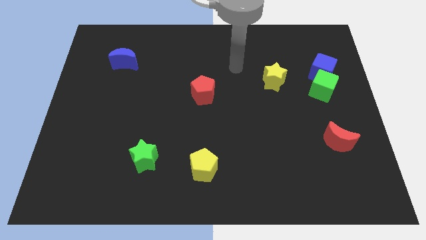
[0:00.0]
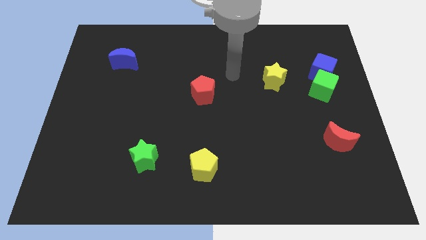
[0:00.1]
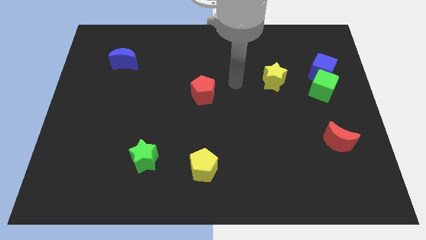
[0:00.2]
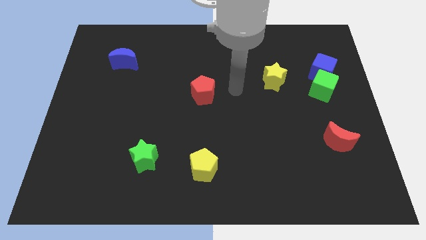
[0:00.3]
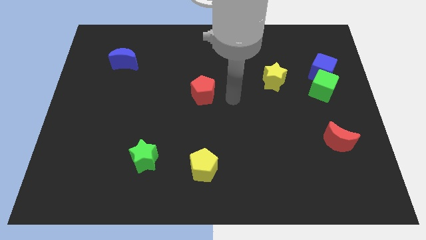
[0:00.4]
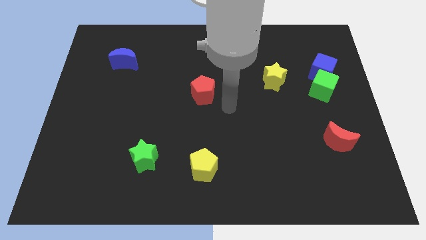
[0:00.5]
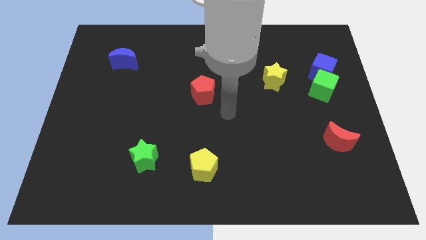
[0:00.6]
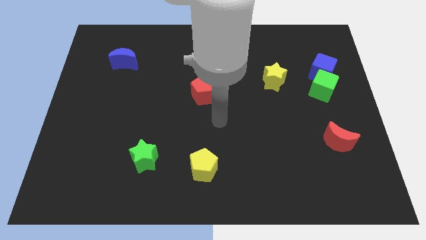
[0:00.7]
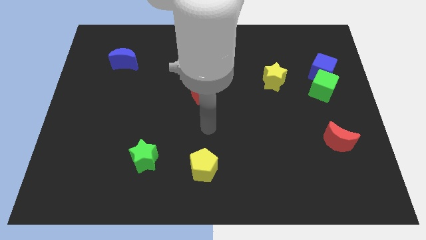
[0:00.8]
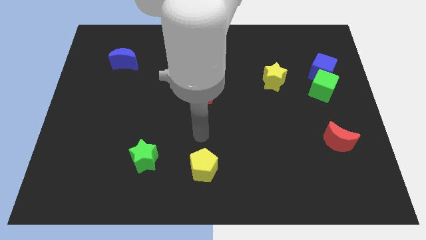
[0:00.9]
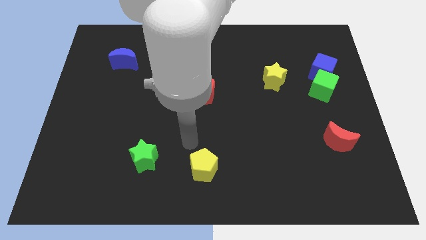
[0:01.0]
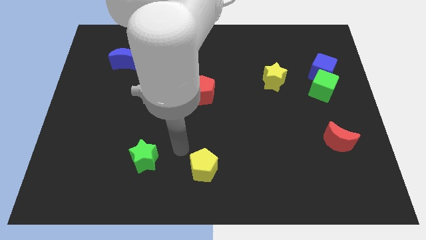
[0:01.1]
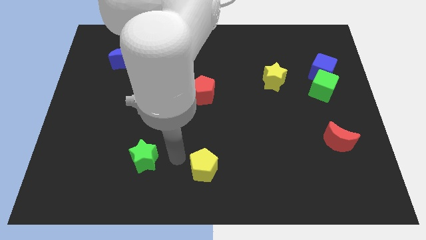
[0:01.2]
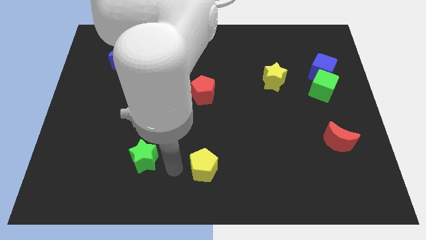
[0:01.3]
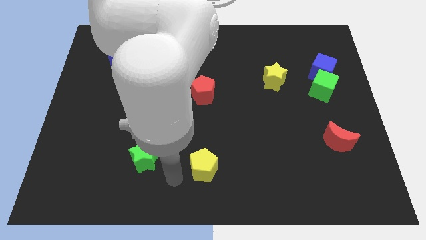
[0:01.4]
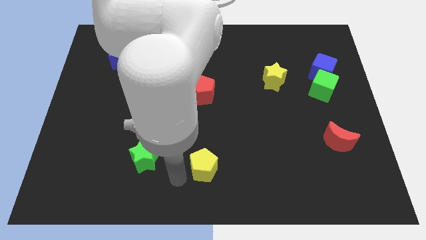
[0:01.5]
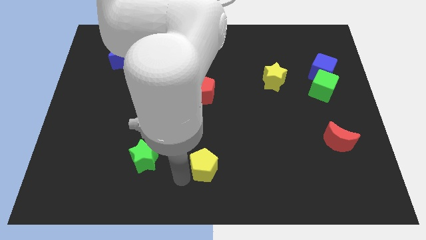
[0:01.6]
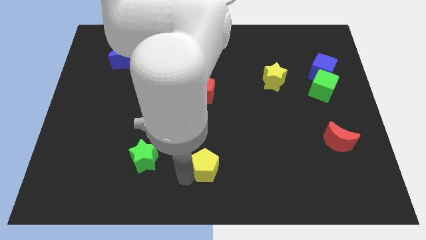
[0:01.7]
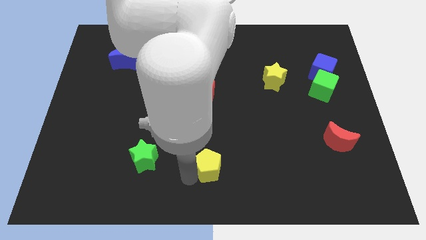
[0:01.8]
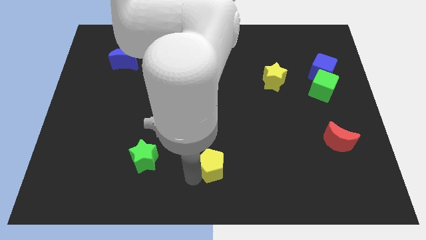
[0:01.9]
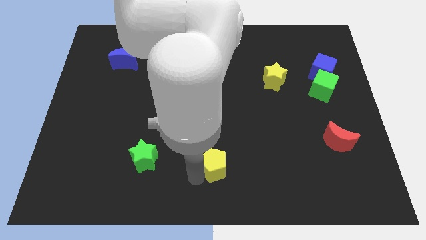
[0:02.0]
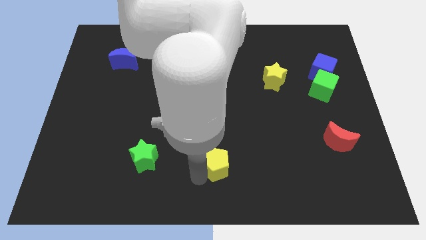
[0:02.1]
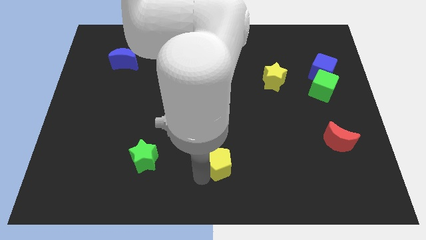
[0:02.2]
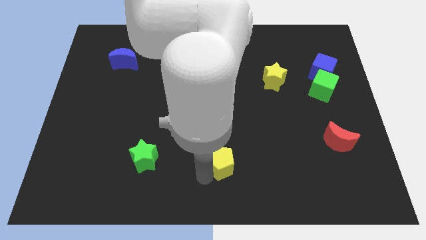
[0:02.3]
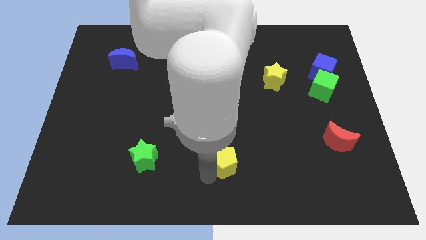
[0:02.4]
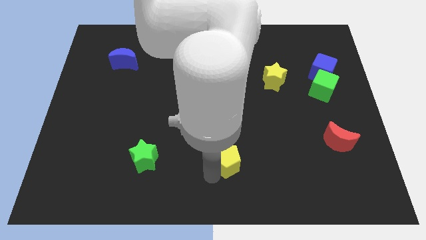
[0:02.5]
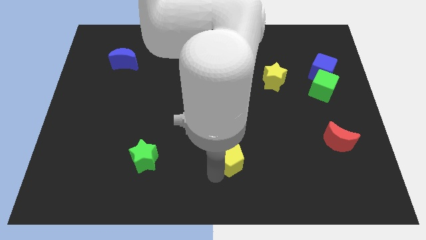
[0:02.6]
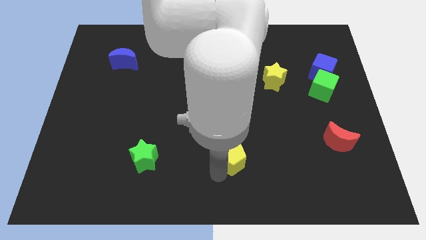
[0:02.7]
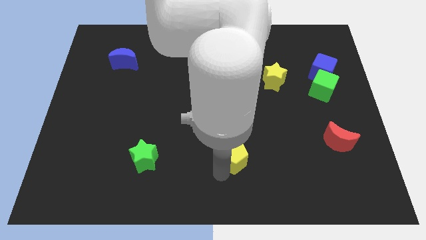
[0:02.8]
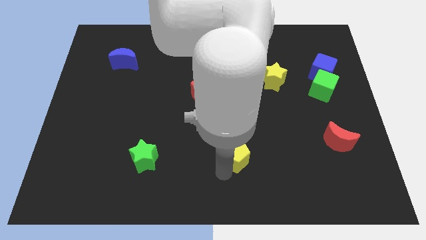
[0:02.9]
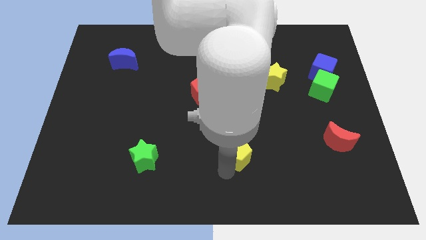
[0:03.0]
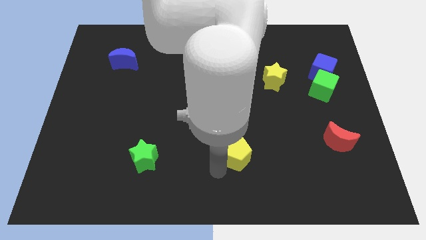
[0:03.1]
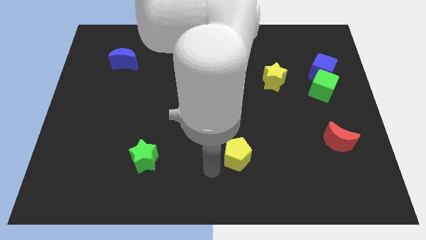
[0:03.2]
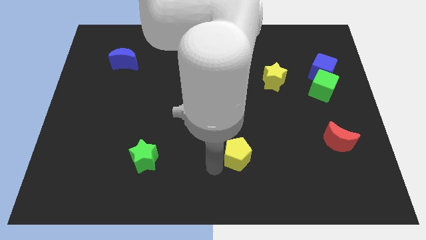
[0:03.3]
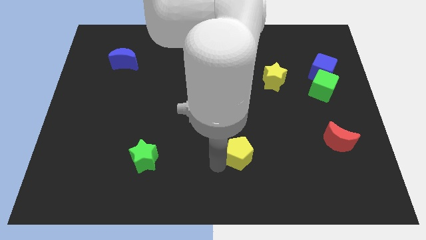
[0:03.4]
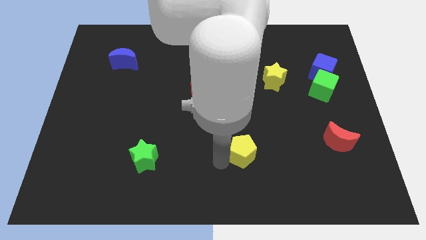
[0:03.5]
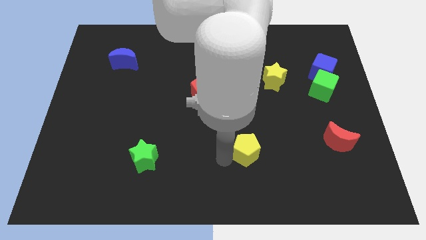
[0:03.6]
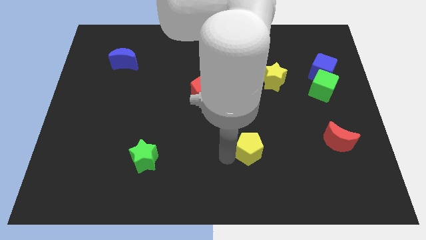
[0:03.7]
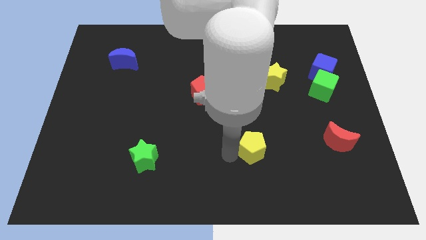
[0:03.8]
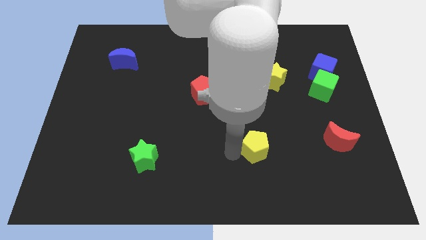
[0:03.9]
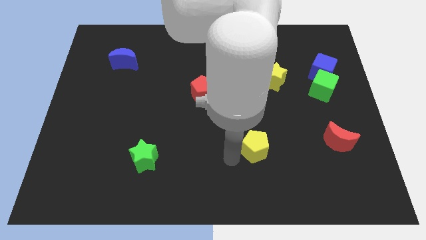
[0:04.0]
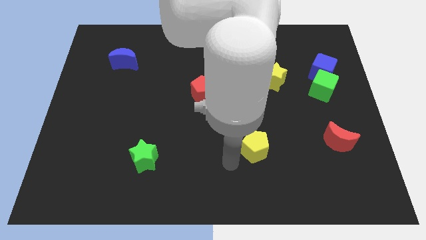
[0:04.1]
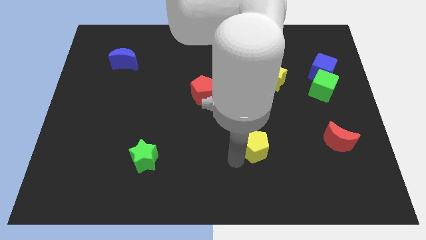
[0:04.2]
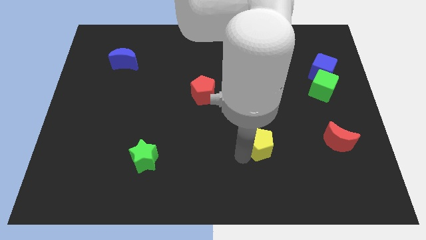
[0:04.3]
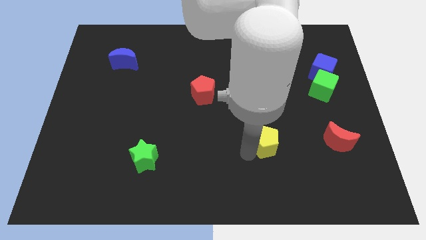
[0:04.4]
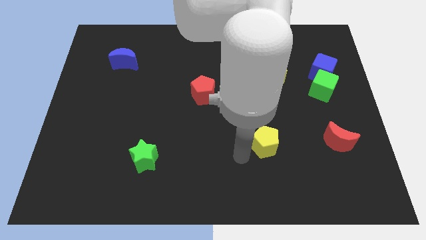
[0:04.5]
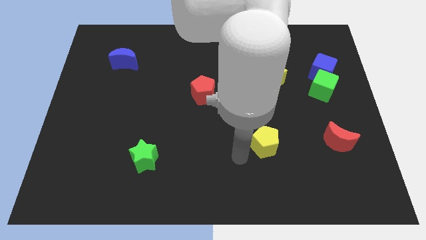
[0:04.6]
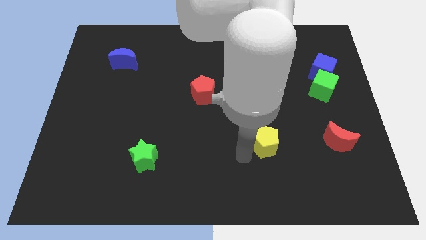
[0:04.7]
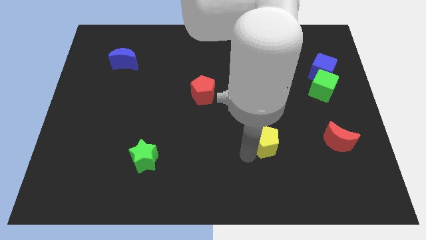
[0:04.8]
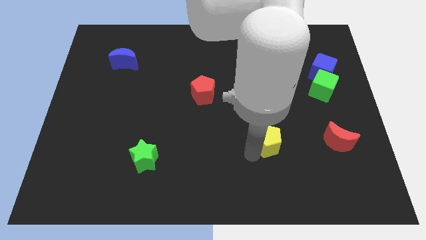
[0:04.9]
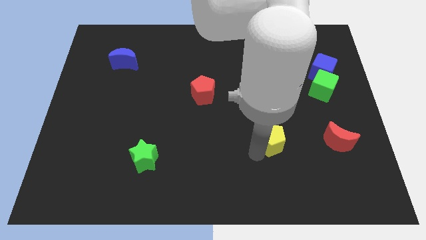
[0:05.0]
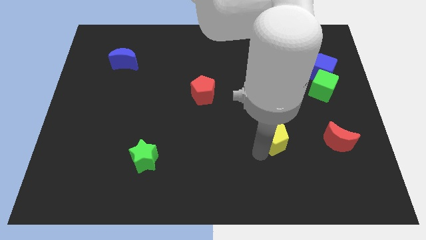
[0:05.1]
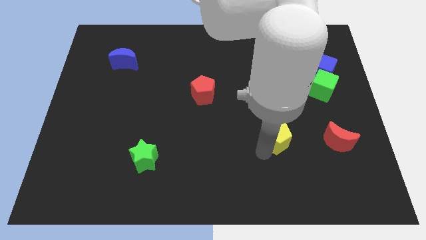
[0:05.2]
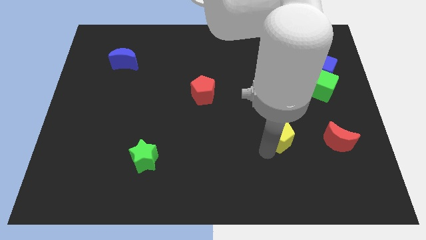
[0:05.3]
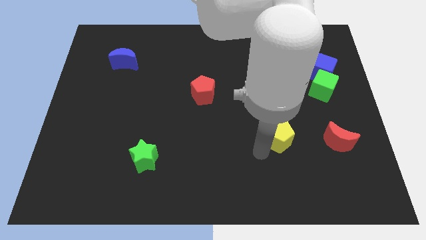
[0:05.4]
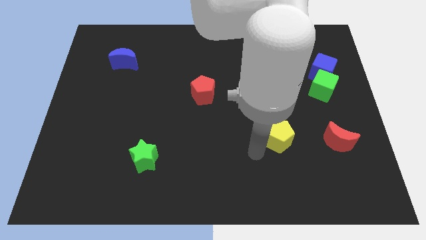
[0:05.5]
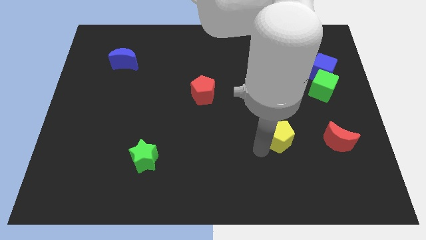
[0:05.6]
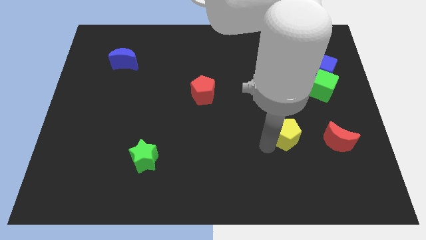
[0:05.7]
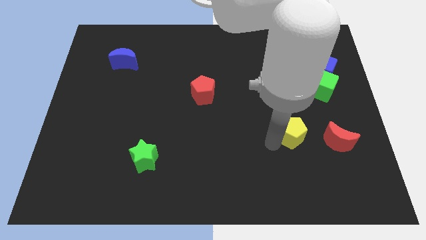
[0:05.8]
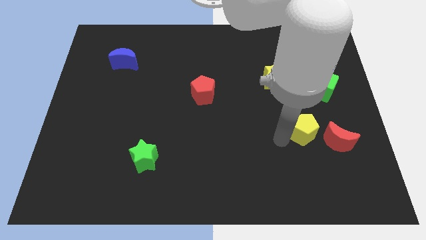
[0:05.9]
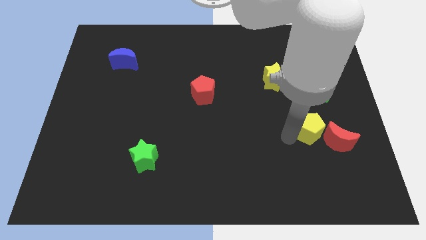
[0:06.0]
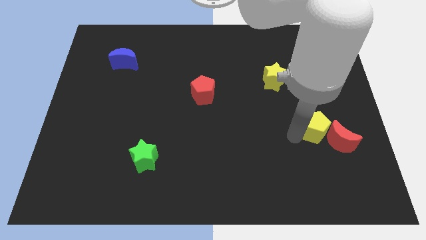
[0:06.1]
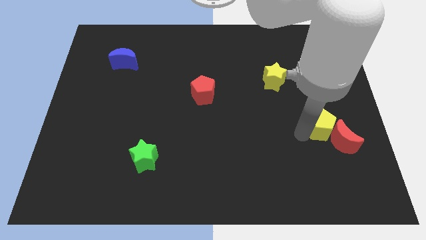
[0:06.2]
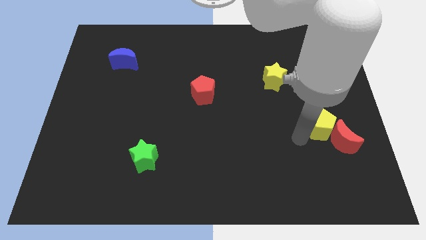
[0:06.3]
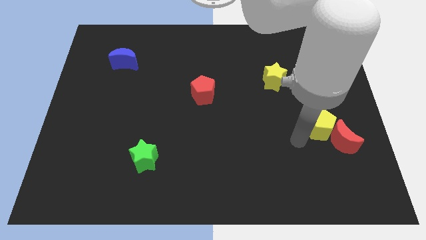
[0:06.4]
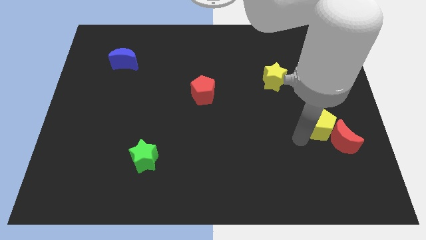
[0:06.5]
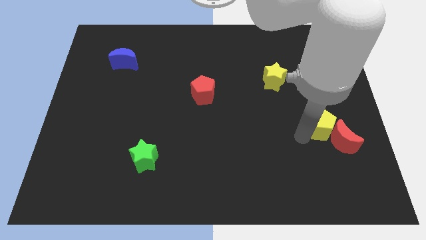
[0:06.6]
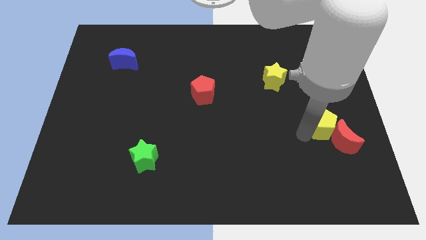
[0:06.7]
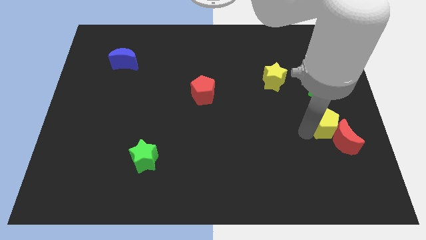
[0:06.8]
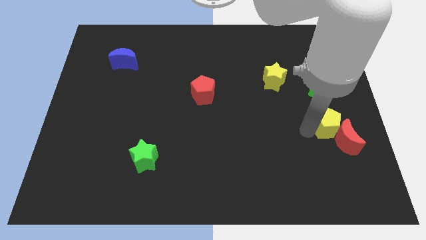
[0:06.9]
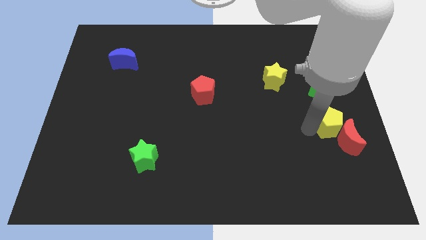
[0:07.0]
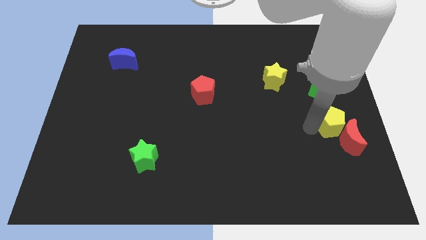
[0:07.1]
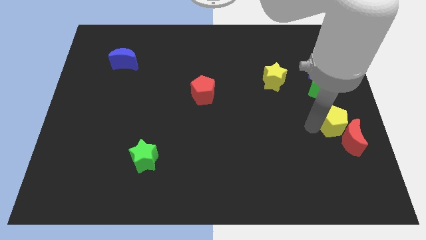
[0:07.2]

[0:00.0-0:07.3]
move the yellow pentagon to the center right
